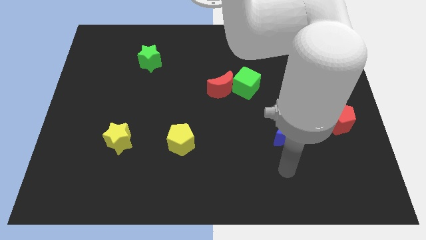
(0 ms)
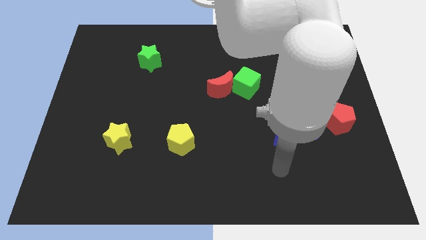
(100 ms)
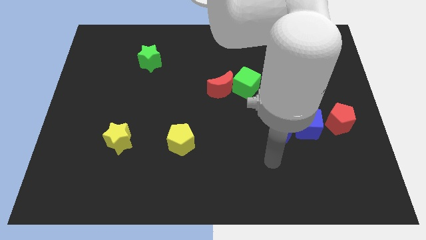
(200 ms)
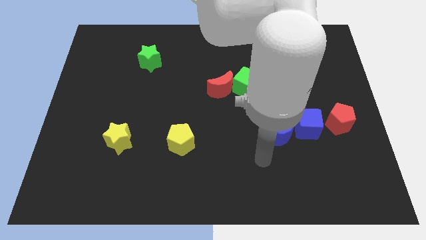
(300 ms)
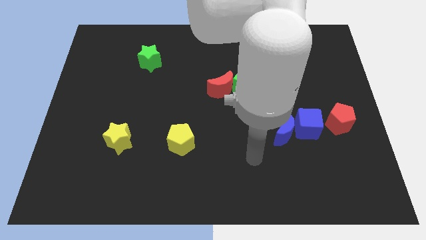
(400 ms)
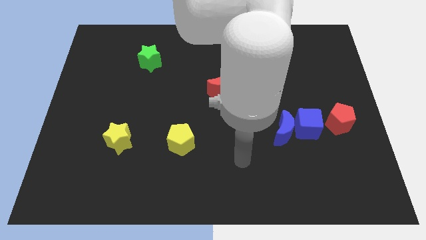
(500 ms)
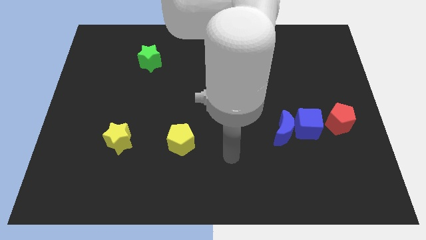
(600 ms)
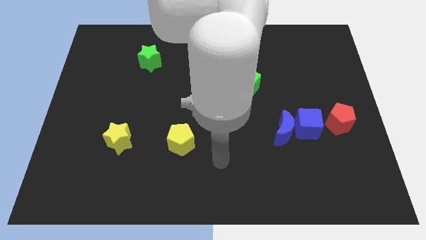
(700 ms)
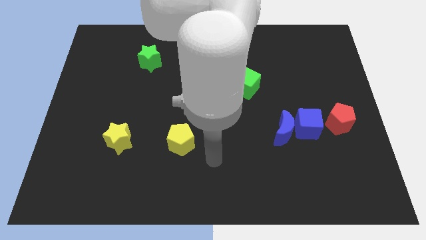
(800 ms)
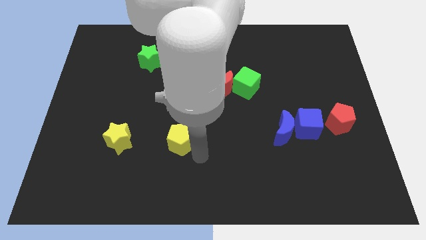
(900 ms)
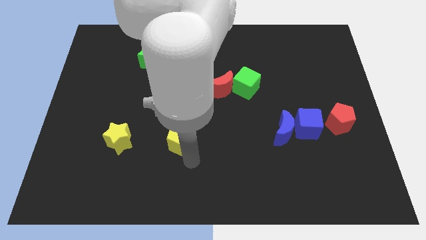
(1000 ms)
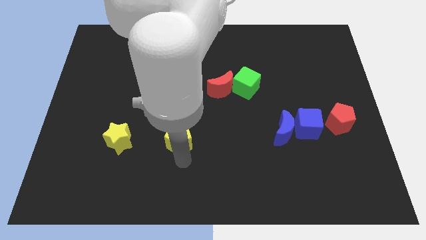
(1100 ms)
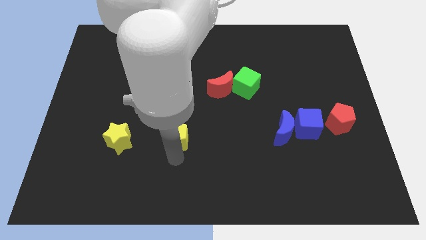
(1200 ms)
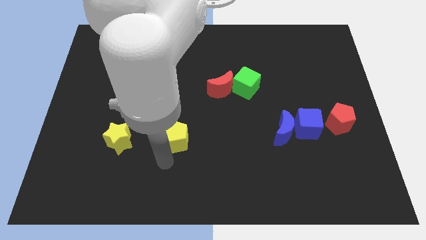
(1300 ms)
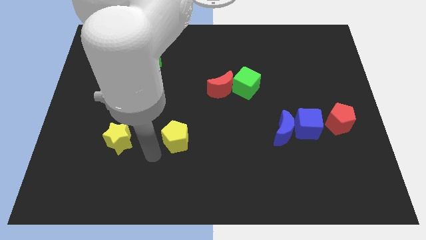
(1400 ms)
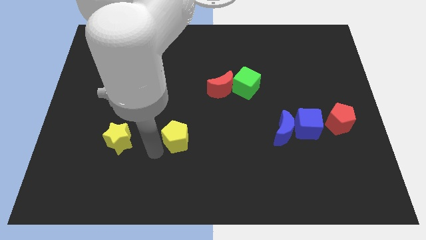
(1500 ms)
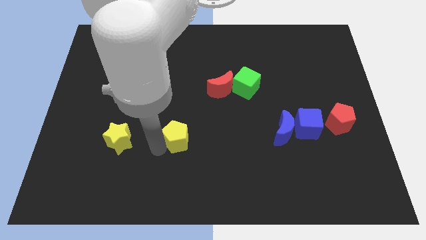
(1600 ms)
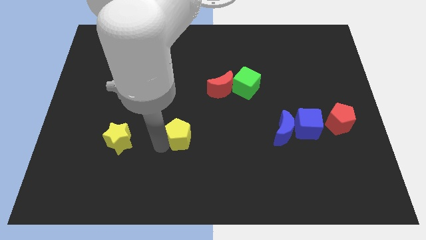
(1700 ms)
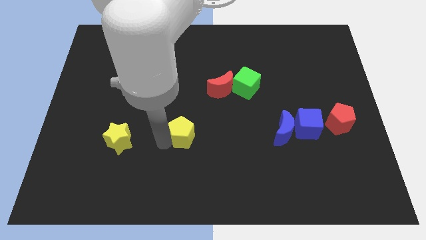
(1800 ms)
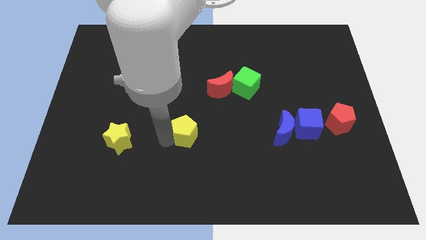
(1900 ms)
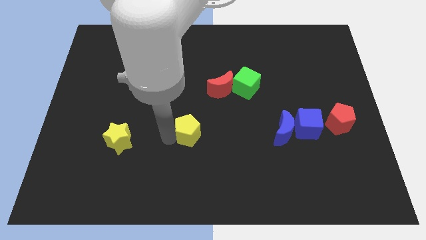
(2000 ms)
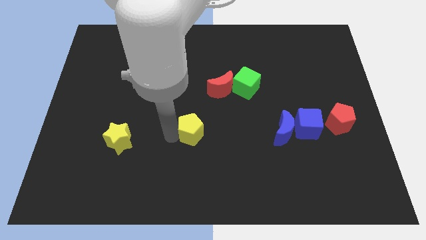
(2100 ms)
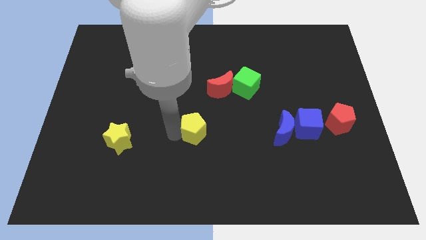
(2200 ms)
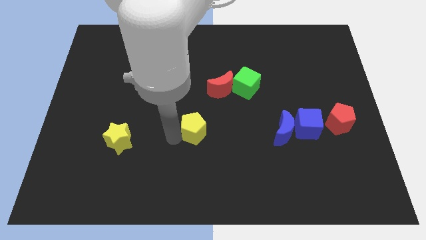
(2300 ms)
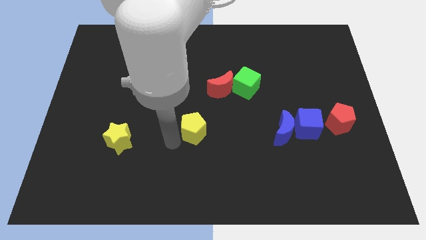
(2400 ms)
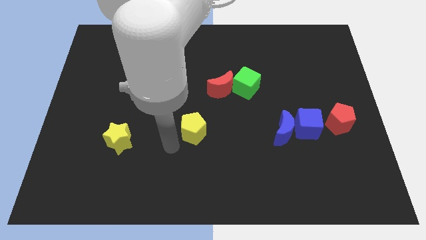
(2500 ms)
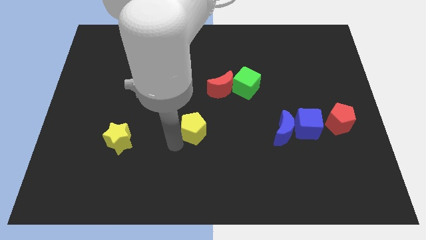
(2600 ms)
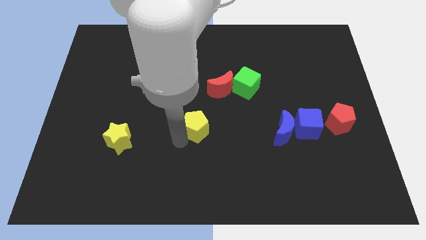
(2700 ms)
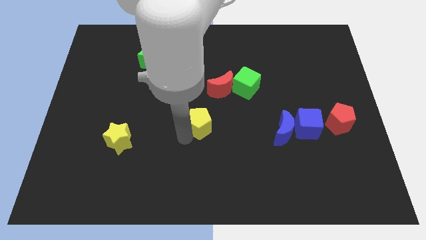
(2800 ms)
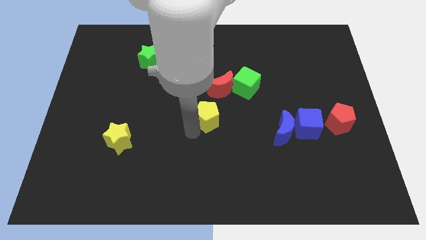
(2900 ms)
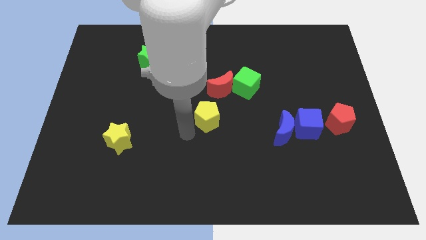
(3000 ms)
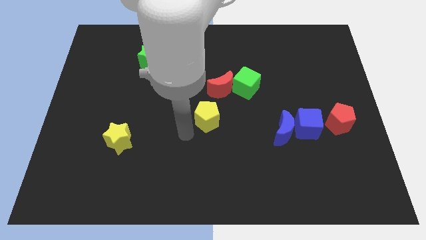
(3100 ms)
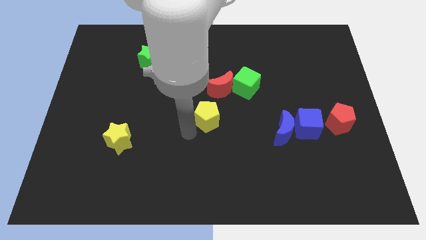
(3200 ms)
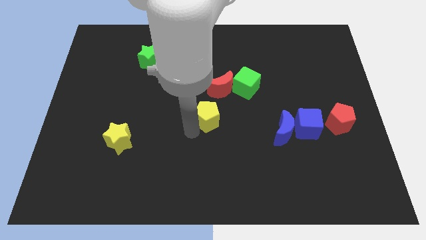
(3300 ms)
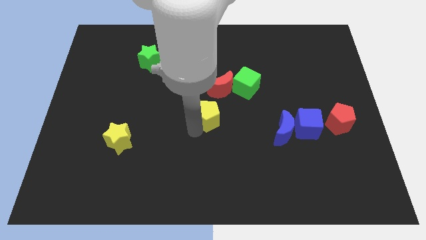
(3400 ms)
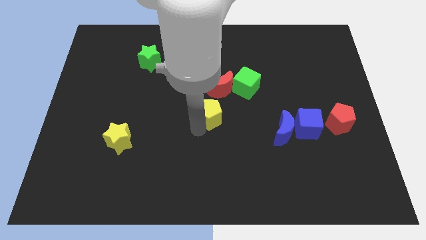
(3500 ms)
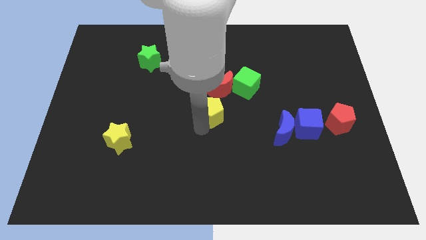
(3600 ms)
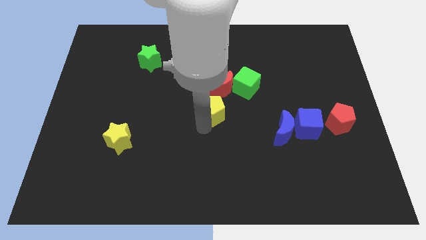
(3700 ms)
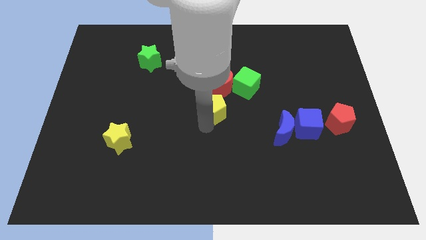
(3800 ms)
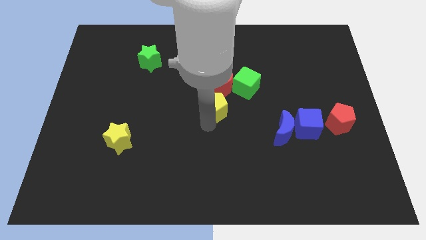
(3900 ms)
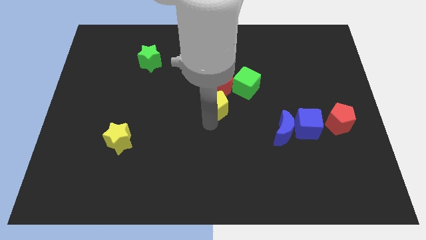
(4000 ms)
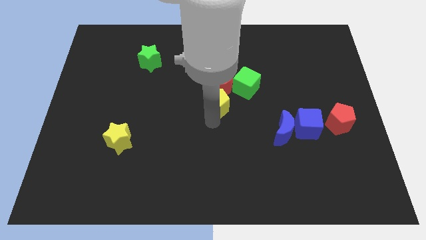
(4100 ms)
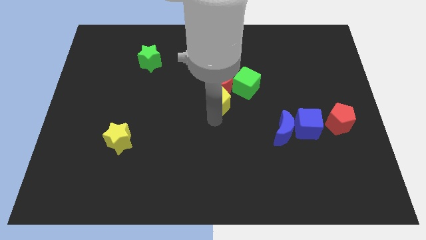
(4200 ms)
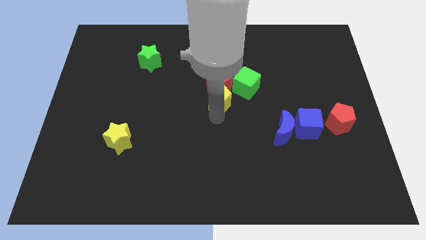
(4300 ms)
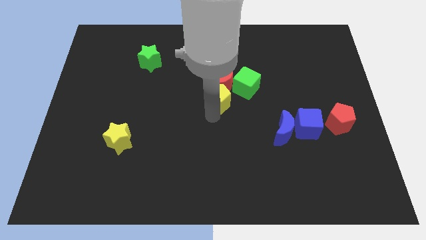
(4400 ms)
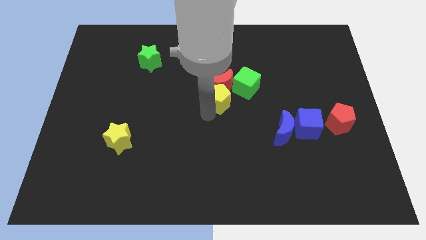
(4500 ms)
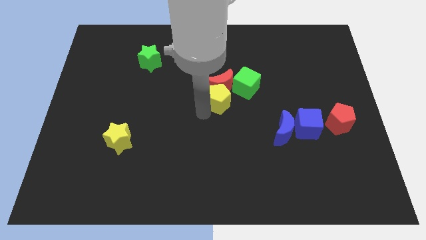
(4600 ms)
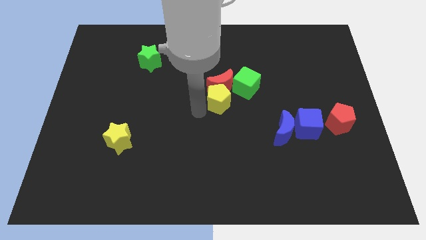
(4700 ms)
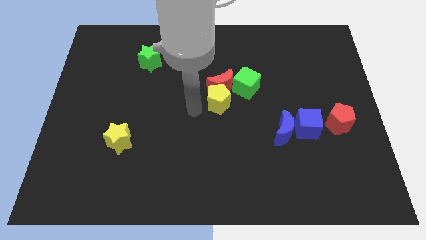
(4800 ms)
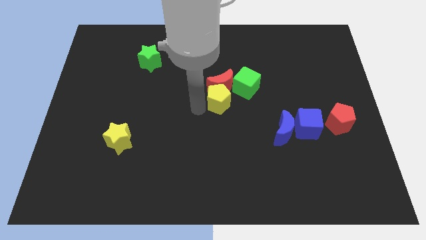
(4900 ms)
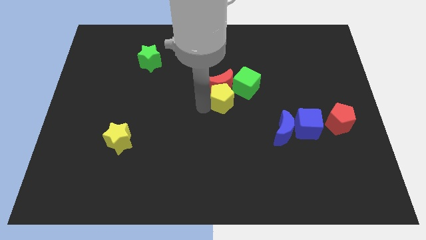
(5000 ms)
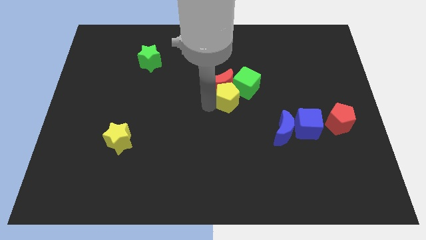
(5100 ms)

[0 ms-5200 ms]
put the yellow pentagon close to the green cube

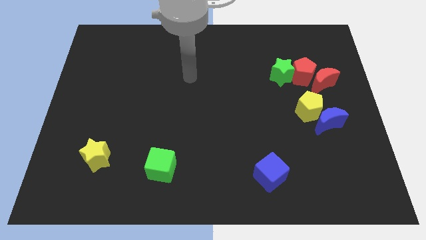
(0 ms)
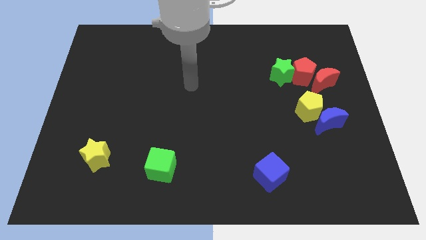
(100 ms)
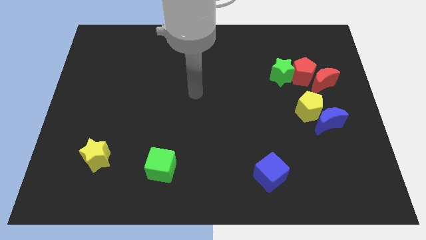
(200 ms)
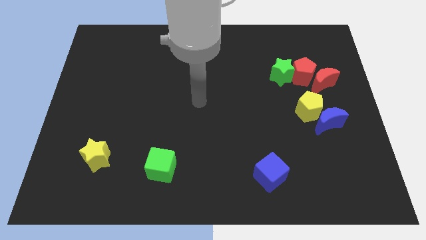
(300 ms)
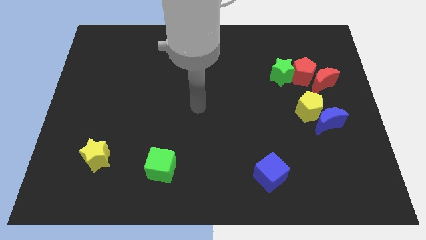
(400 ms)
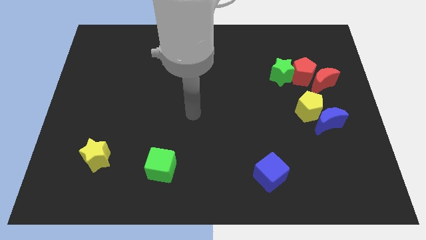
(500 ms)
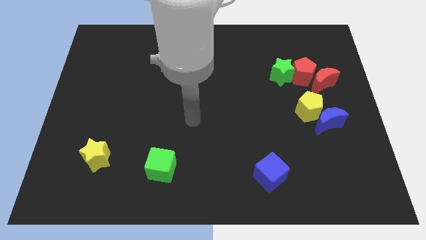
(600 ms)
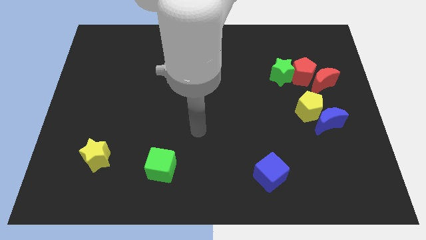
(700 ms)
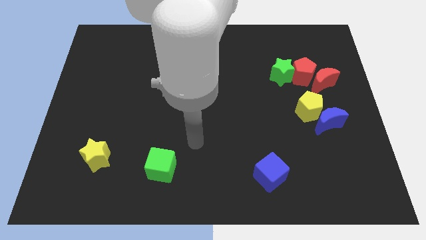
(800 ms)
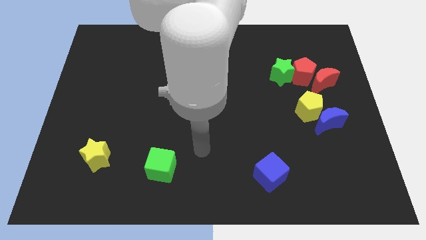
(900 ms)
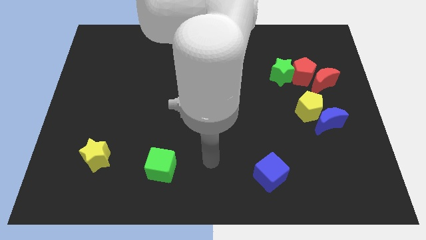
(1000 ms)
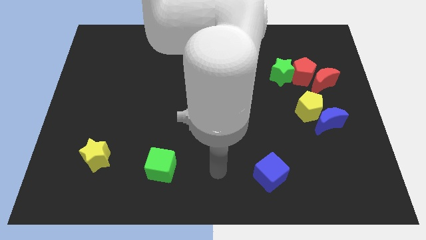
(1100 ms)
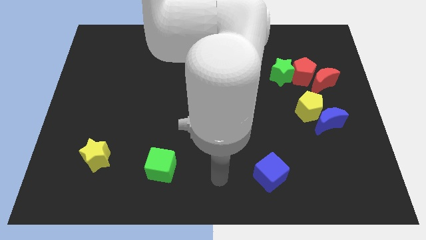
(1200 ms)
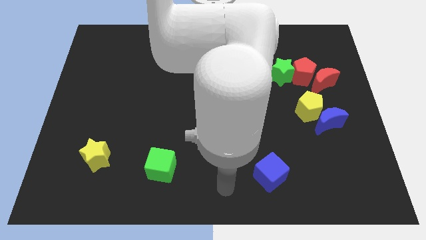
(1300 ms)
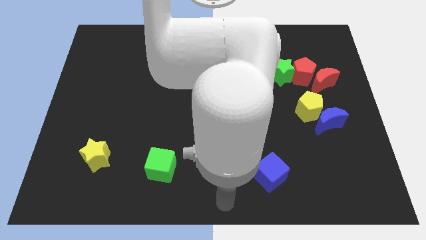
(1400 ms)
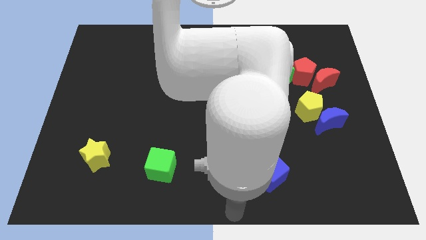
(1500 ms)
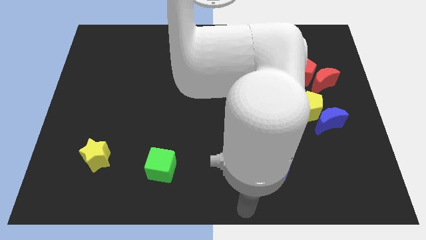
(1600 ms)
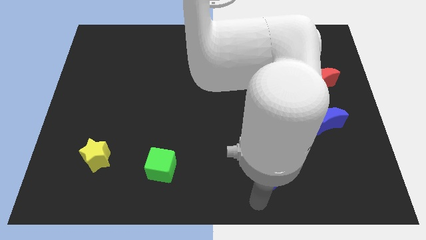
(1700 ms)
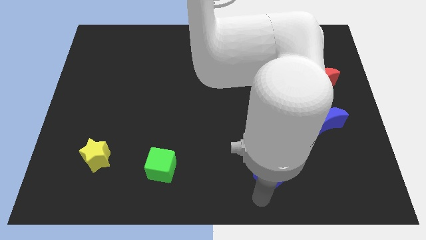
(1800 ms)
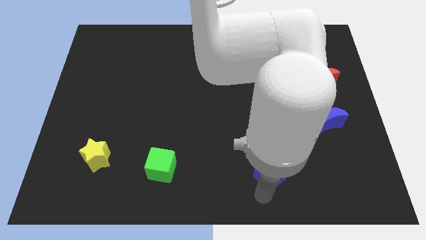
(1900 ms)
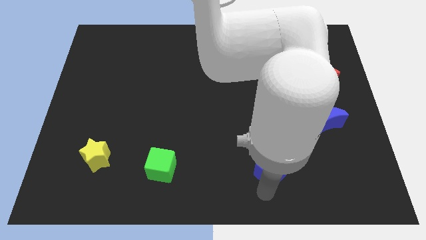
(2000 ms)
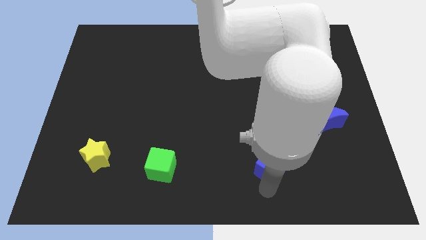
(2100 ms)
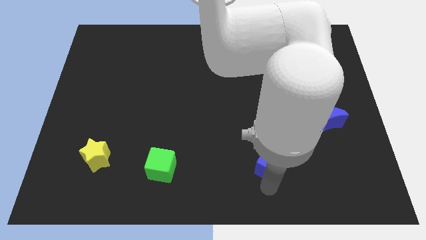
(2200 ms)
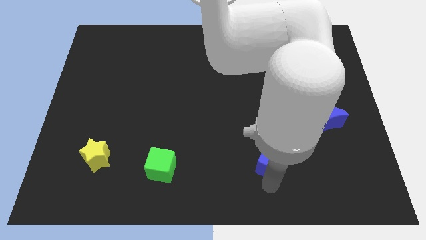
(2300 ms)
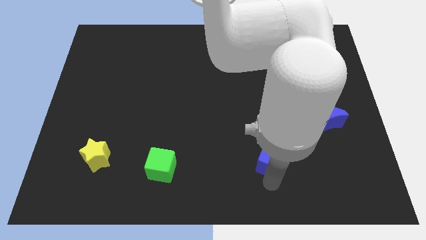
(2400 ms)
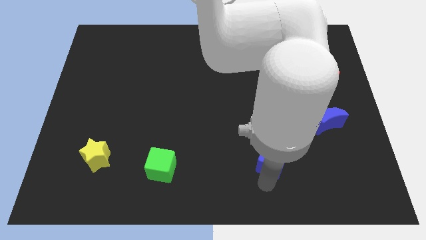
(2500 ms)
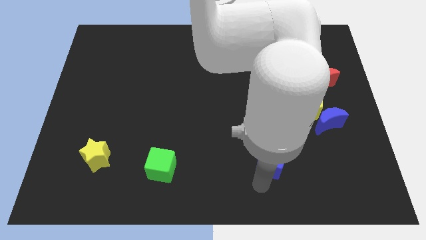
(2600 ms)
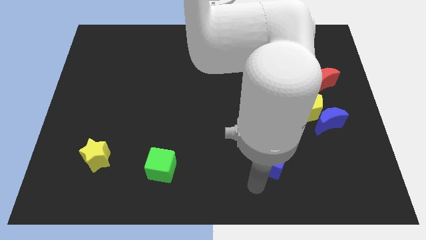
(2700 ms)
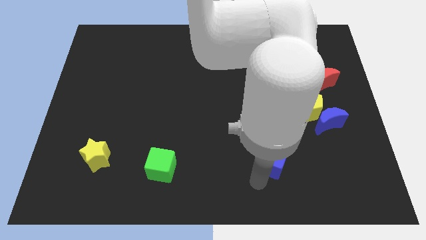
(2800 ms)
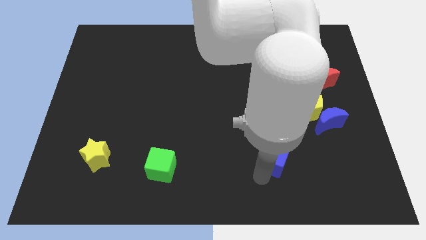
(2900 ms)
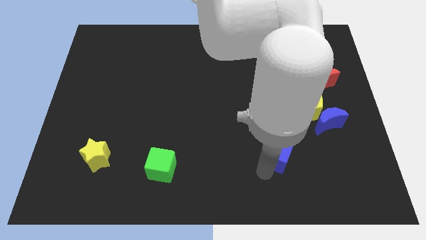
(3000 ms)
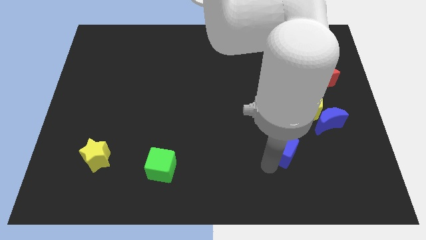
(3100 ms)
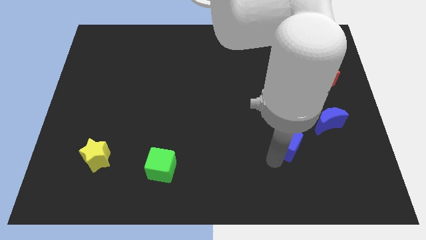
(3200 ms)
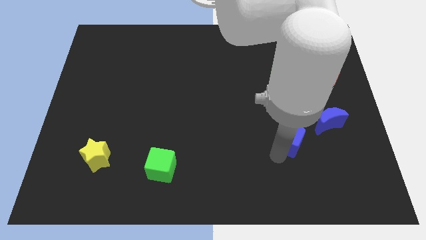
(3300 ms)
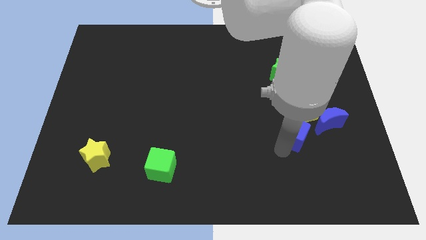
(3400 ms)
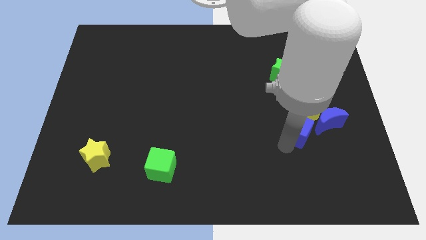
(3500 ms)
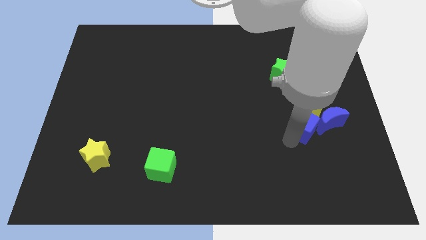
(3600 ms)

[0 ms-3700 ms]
slide the blue cube to the yellow pentagon
